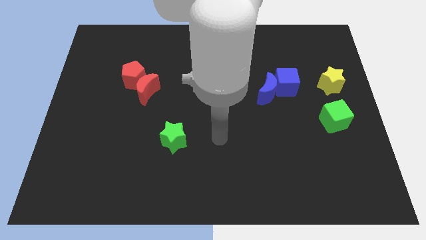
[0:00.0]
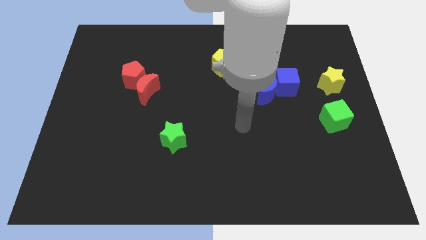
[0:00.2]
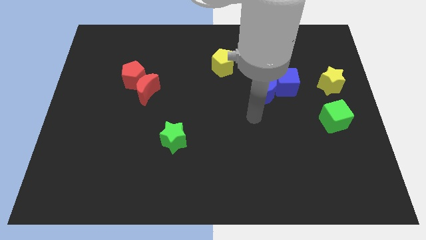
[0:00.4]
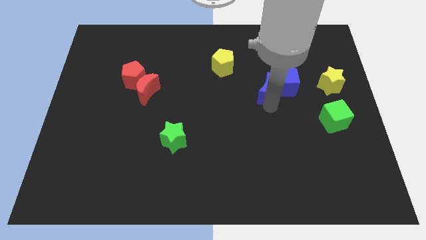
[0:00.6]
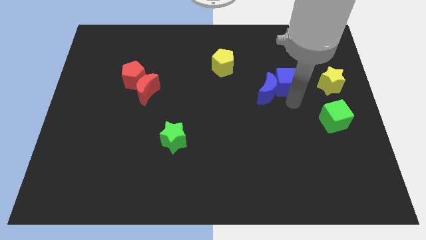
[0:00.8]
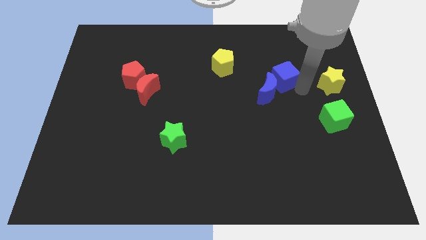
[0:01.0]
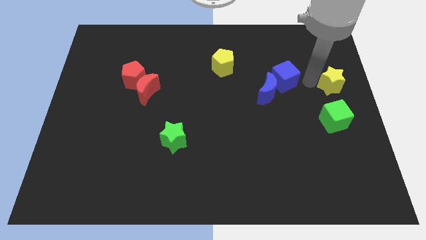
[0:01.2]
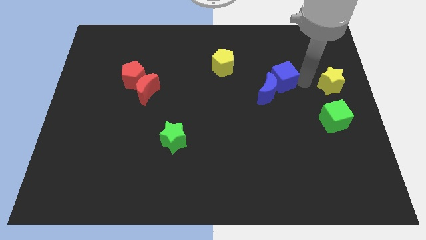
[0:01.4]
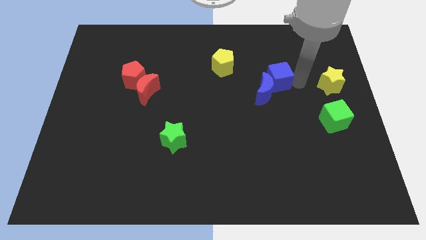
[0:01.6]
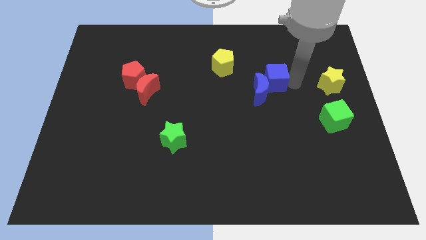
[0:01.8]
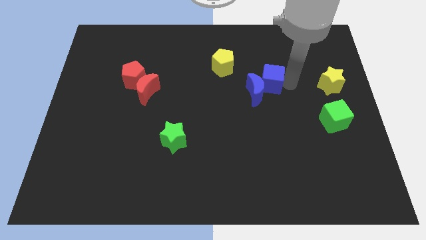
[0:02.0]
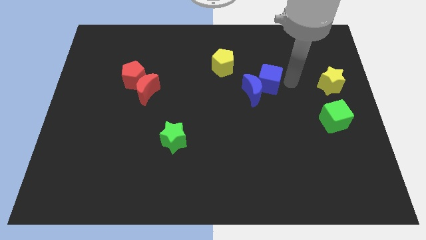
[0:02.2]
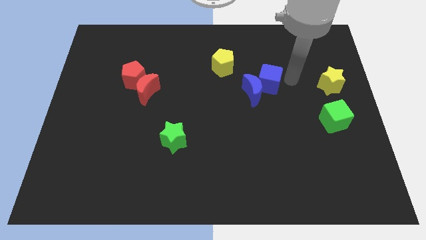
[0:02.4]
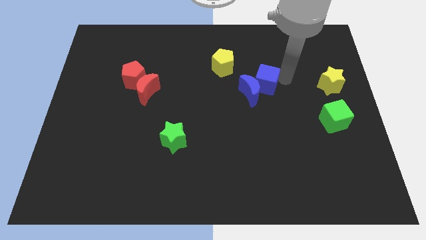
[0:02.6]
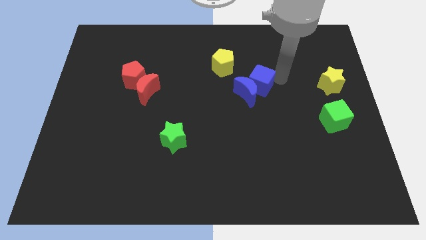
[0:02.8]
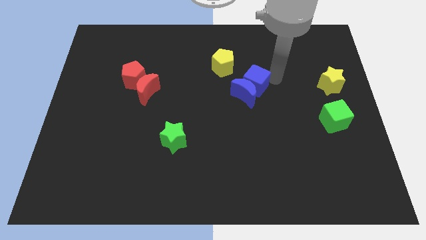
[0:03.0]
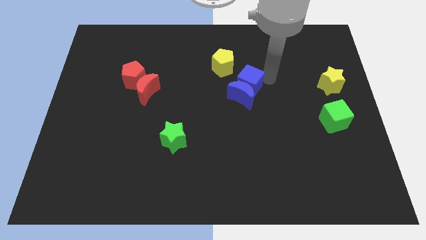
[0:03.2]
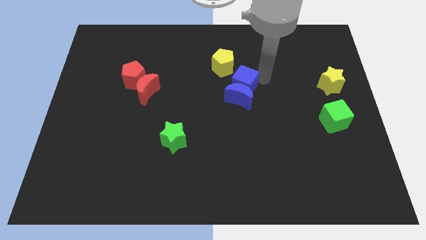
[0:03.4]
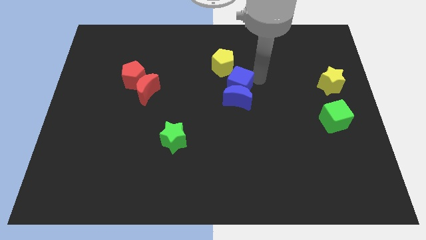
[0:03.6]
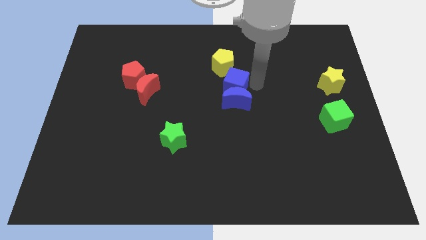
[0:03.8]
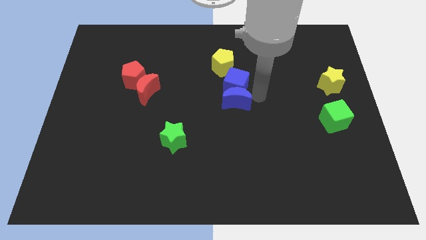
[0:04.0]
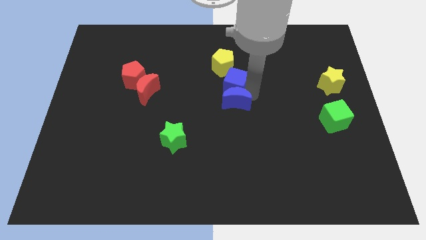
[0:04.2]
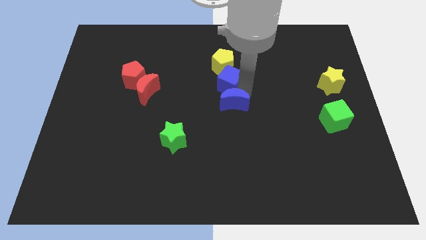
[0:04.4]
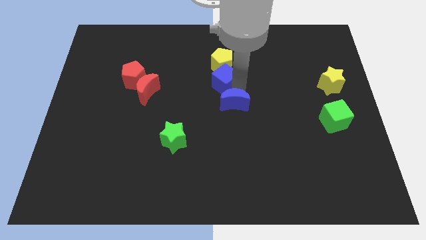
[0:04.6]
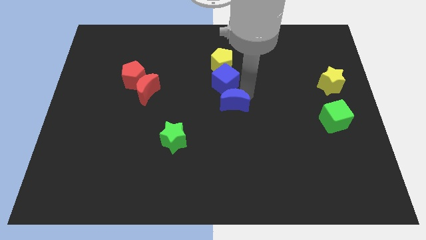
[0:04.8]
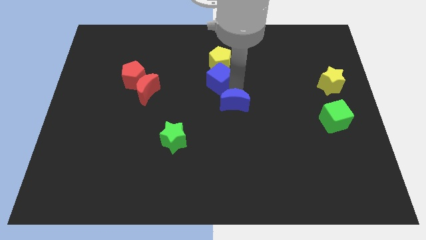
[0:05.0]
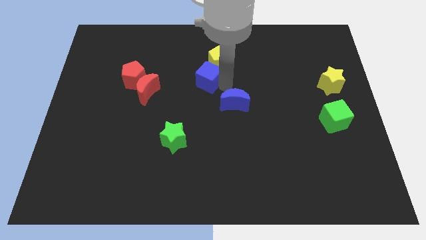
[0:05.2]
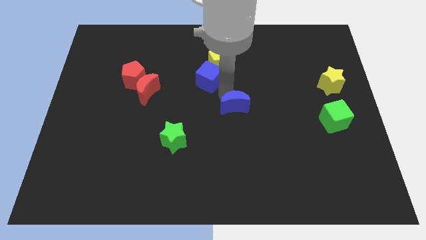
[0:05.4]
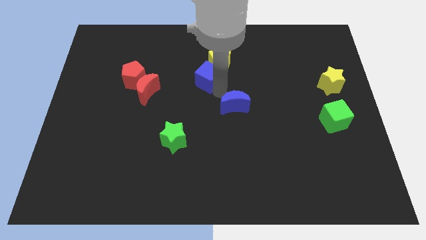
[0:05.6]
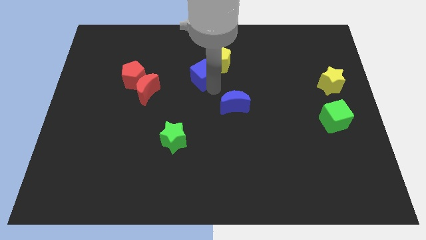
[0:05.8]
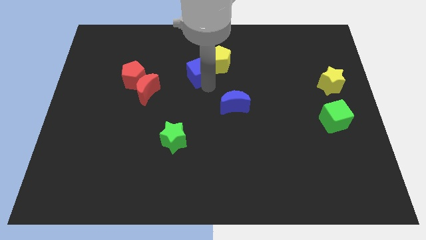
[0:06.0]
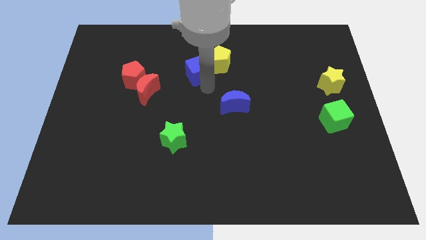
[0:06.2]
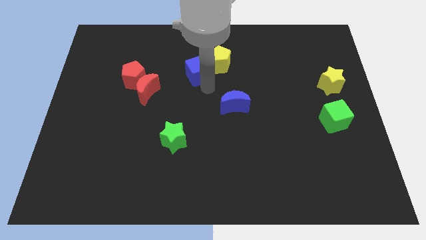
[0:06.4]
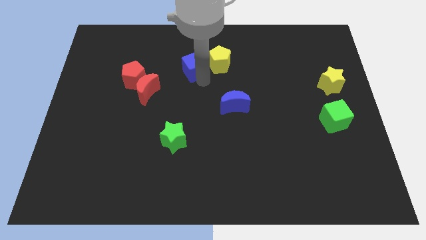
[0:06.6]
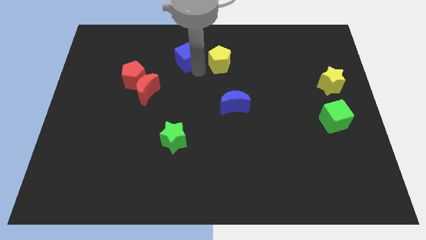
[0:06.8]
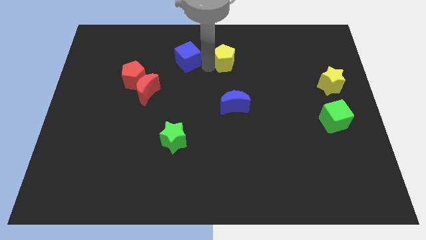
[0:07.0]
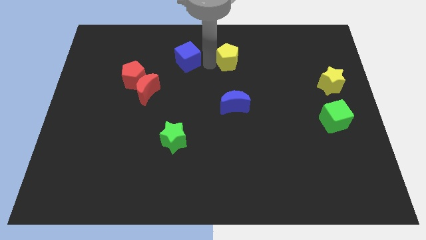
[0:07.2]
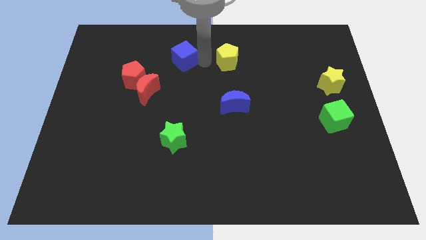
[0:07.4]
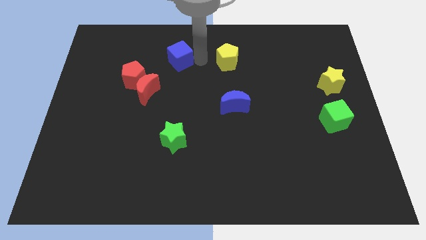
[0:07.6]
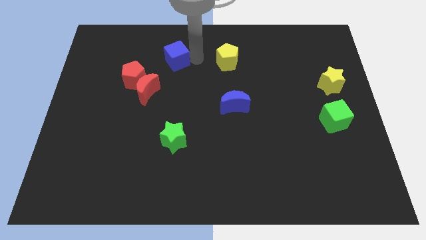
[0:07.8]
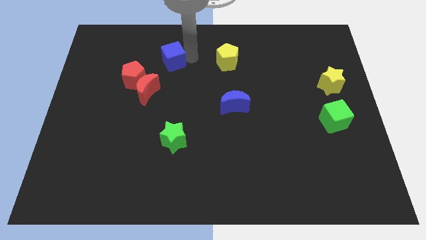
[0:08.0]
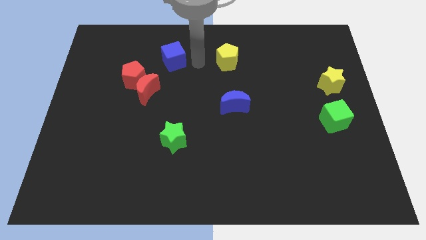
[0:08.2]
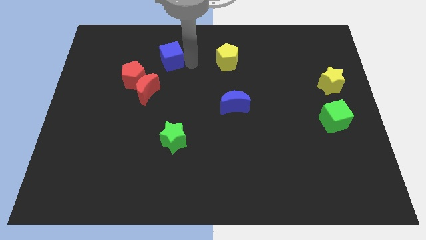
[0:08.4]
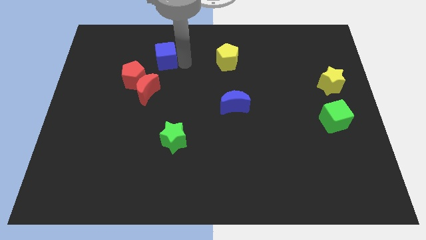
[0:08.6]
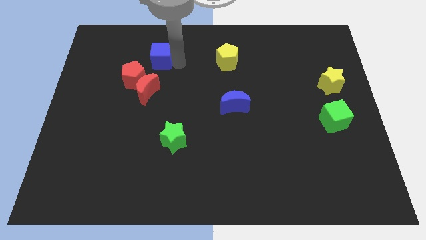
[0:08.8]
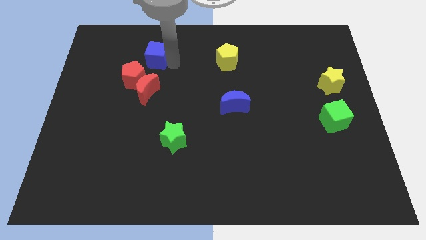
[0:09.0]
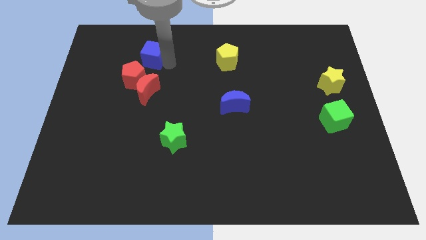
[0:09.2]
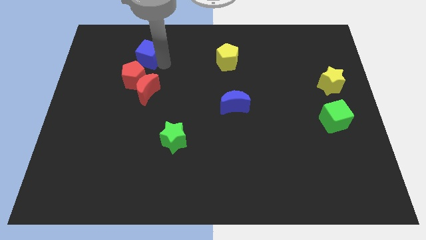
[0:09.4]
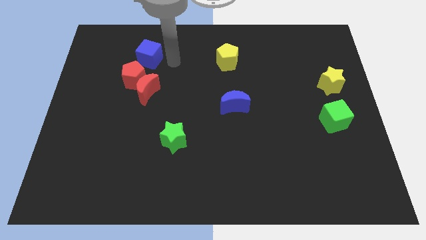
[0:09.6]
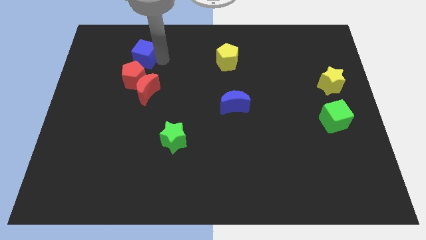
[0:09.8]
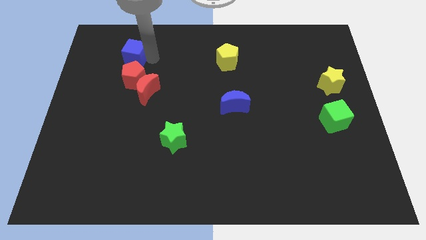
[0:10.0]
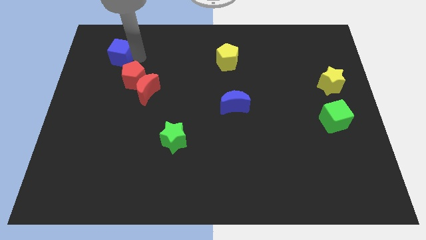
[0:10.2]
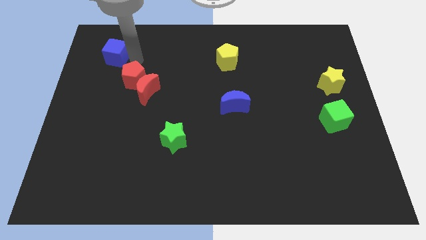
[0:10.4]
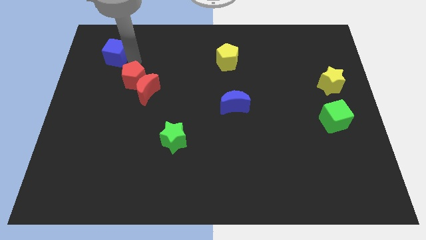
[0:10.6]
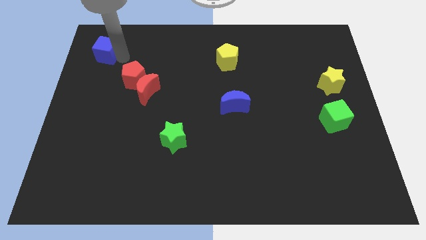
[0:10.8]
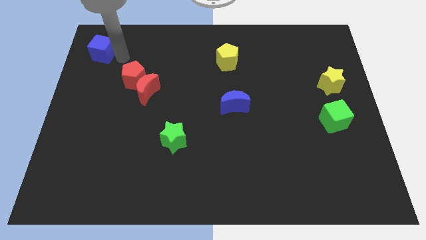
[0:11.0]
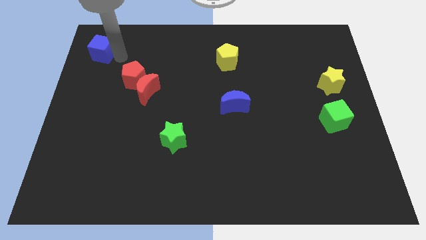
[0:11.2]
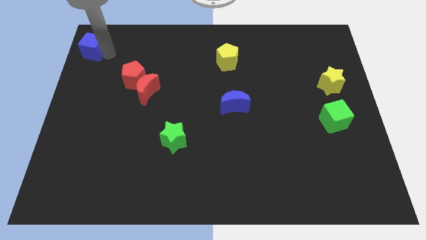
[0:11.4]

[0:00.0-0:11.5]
put the blue cube to the top left of the board

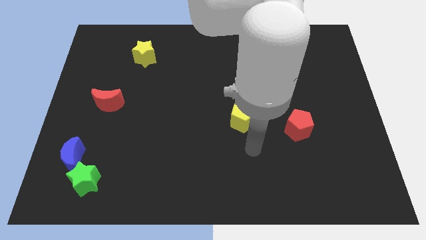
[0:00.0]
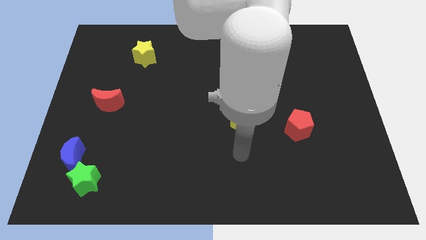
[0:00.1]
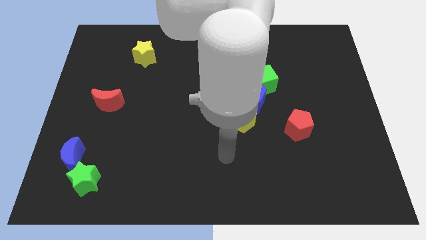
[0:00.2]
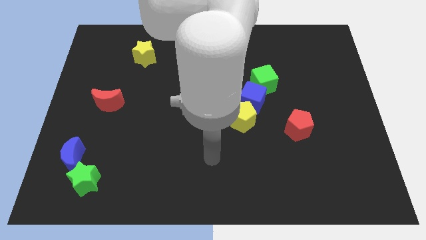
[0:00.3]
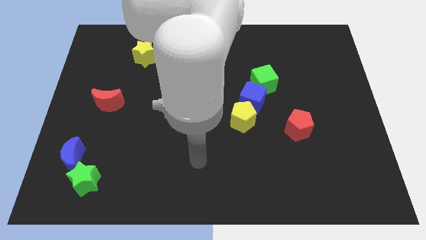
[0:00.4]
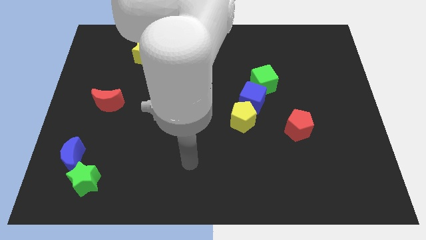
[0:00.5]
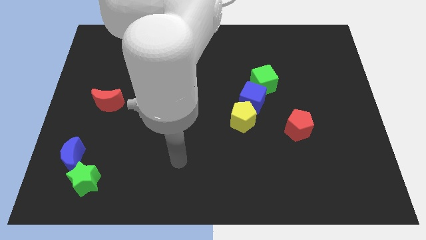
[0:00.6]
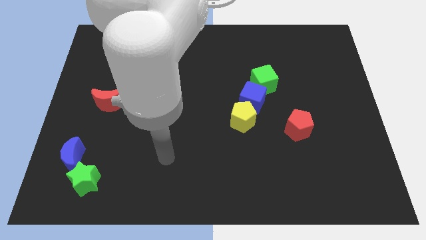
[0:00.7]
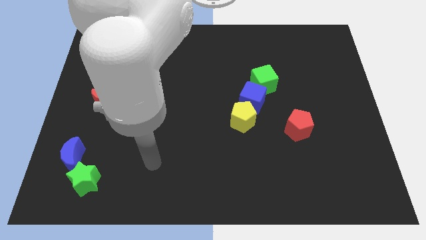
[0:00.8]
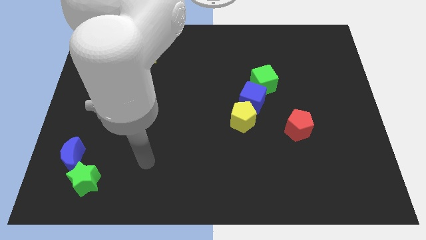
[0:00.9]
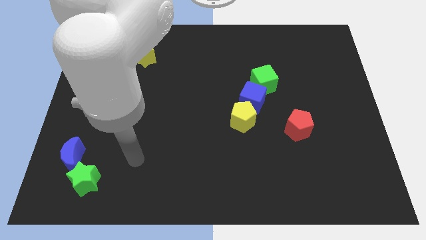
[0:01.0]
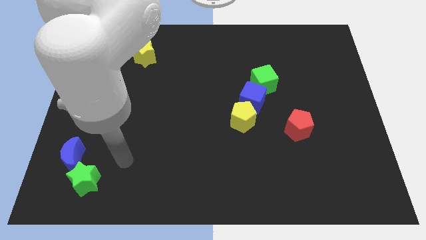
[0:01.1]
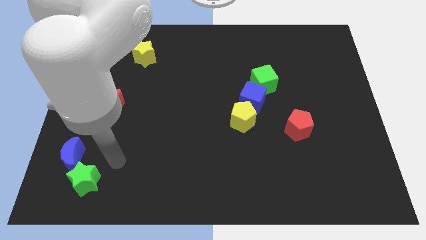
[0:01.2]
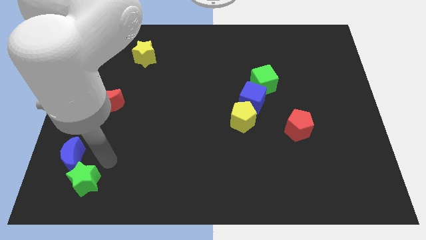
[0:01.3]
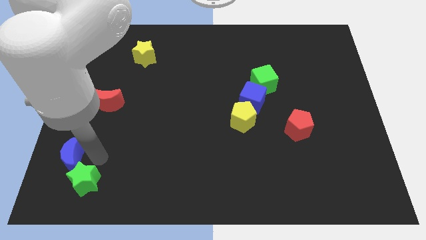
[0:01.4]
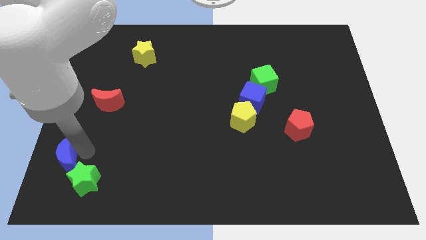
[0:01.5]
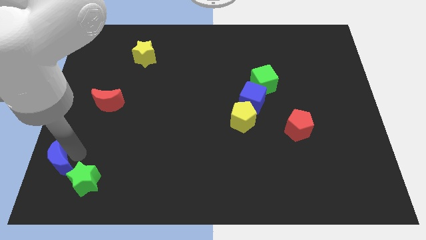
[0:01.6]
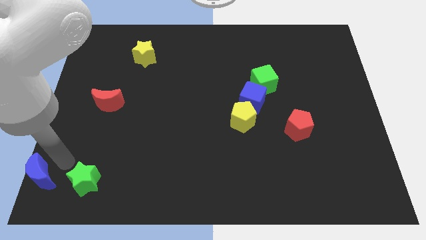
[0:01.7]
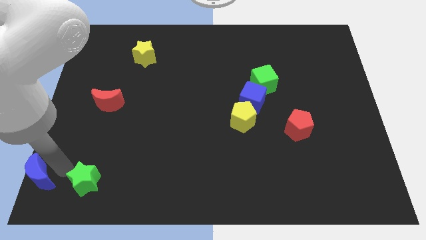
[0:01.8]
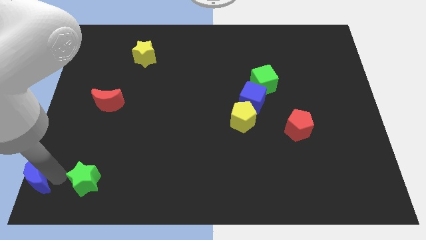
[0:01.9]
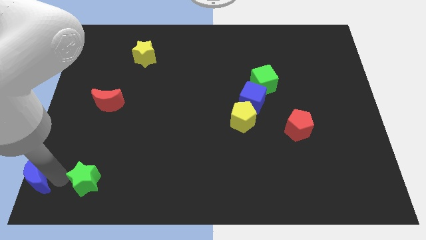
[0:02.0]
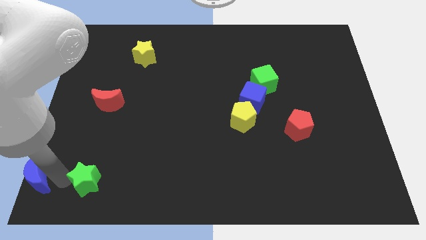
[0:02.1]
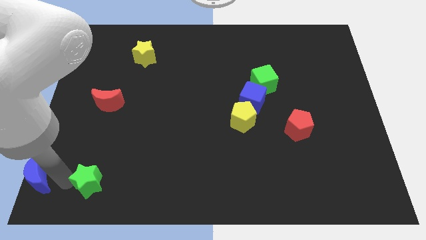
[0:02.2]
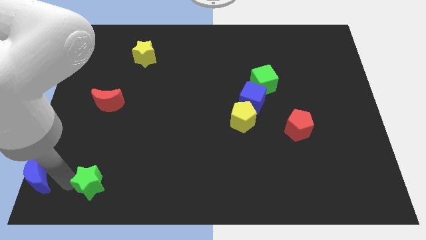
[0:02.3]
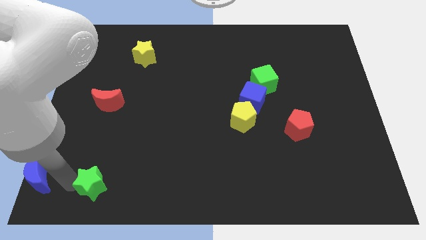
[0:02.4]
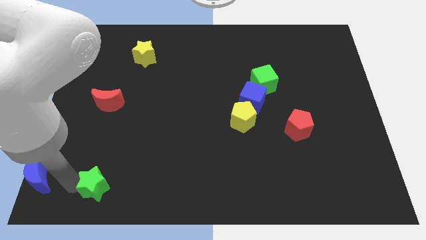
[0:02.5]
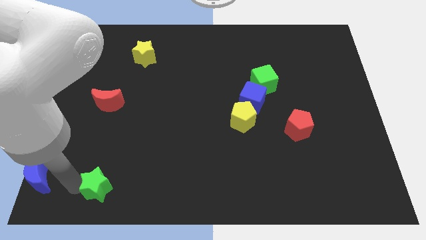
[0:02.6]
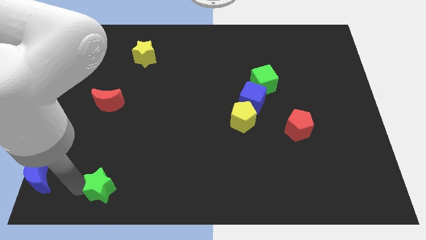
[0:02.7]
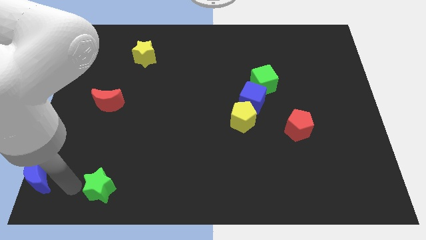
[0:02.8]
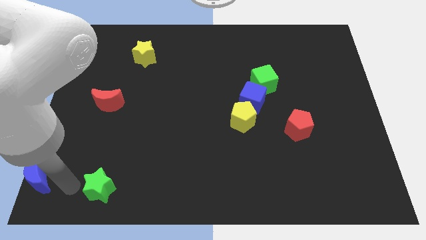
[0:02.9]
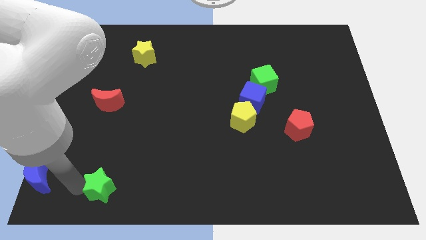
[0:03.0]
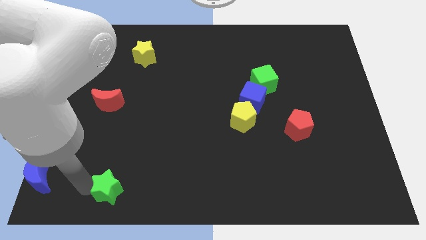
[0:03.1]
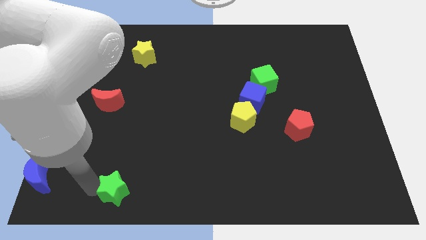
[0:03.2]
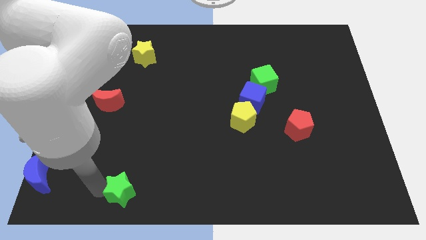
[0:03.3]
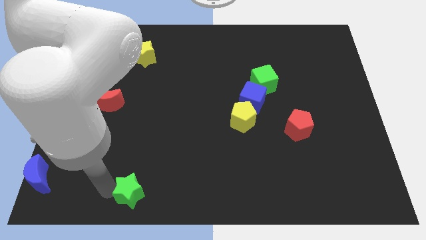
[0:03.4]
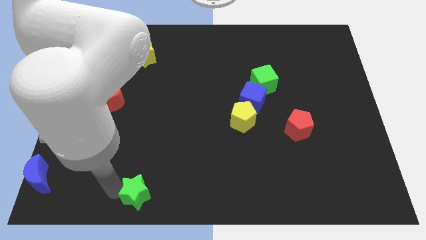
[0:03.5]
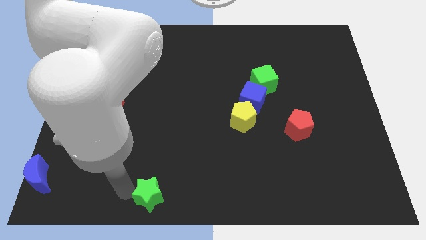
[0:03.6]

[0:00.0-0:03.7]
push the green star to the bottom
